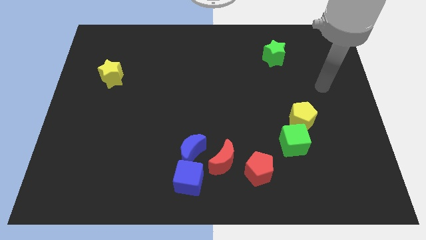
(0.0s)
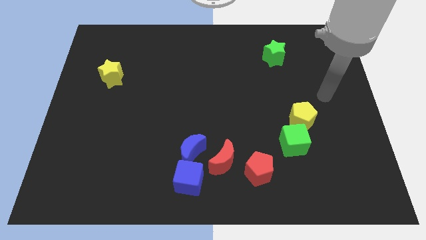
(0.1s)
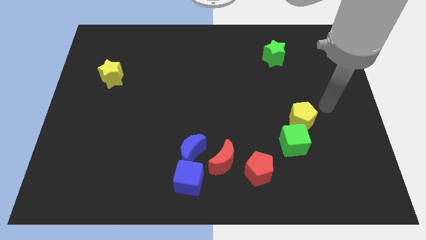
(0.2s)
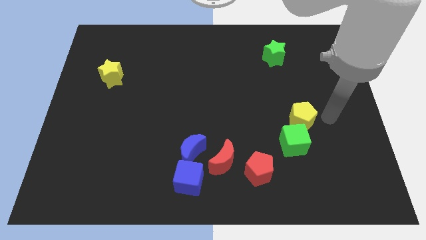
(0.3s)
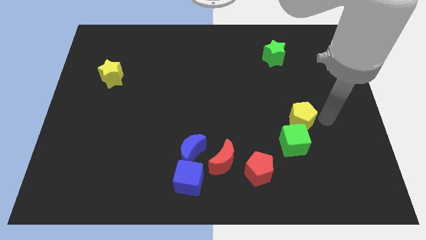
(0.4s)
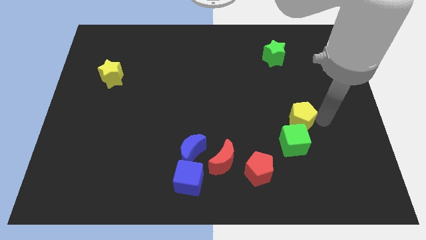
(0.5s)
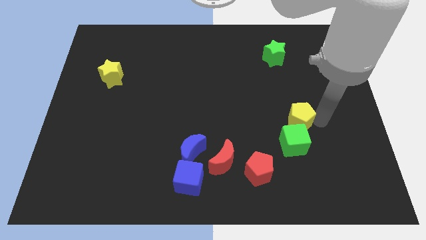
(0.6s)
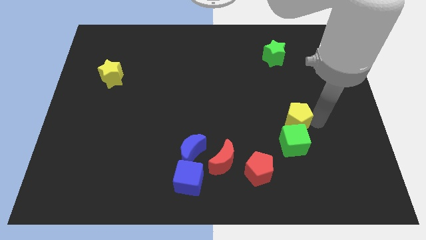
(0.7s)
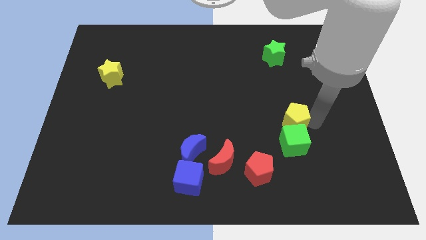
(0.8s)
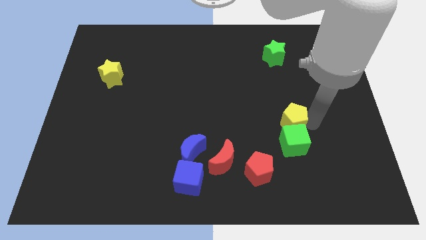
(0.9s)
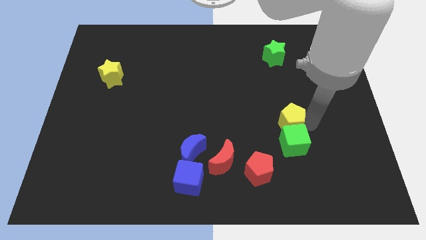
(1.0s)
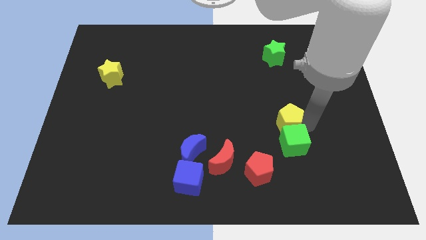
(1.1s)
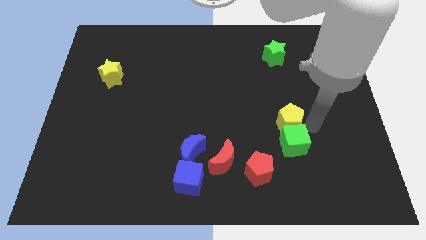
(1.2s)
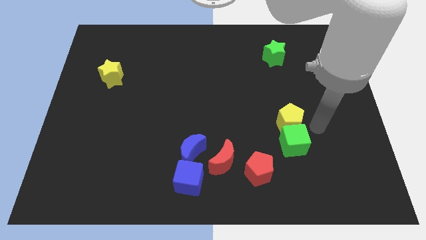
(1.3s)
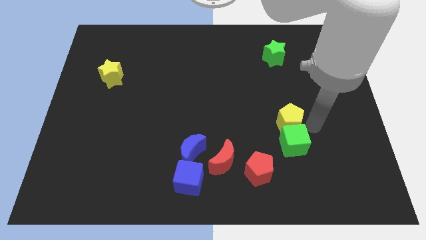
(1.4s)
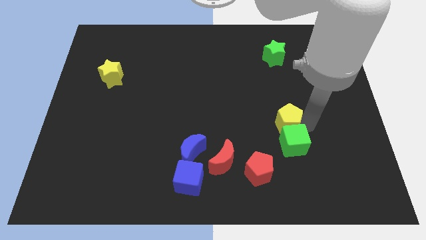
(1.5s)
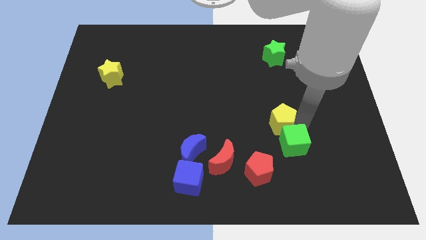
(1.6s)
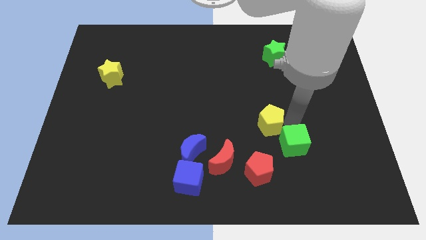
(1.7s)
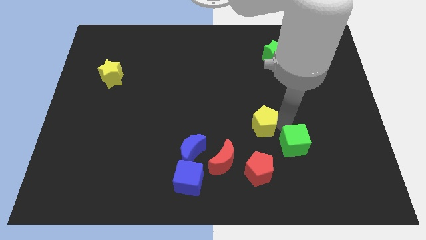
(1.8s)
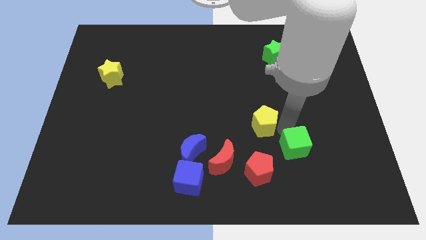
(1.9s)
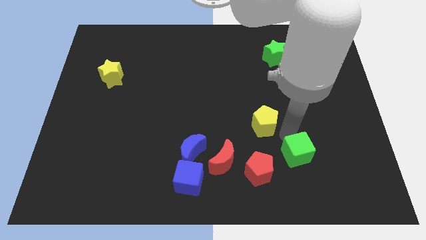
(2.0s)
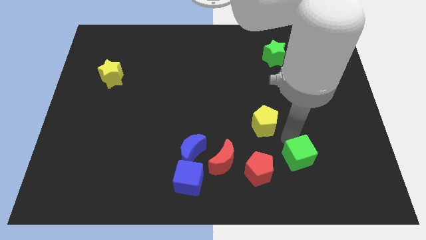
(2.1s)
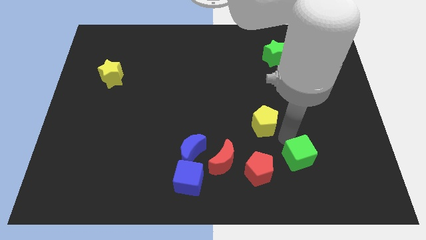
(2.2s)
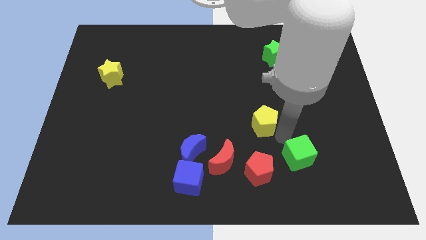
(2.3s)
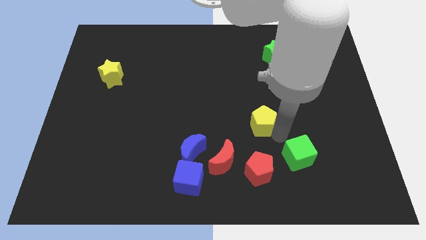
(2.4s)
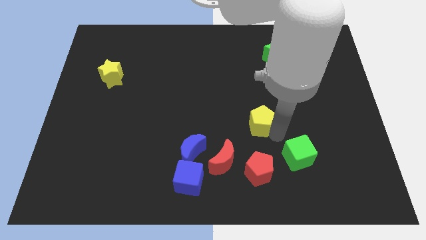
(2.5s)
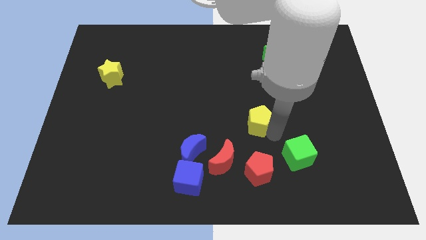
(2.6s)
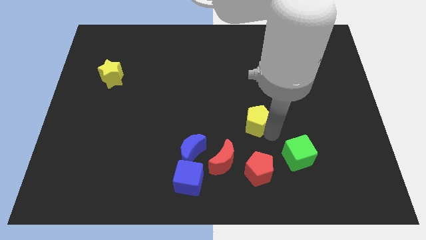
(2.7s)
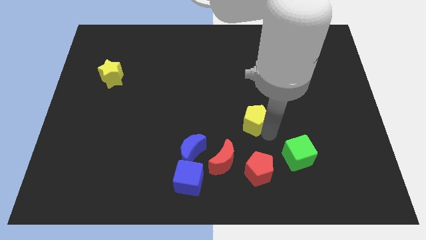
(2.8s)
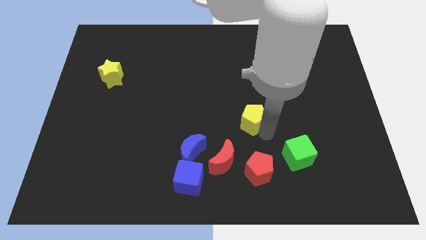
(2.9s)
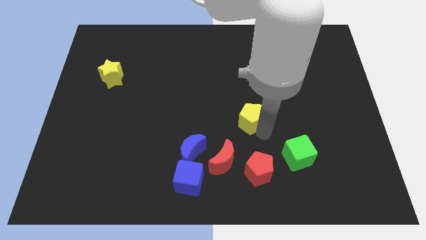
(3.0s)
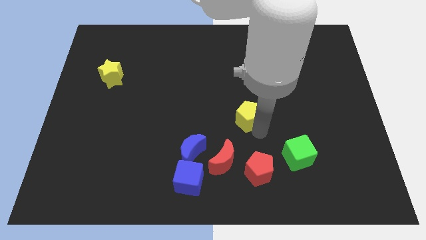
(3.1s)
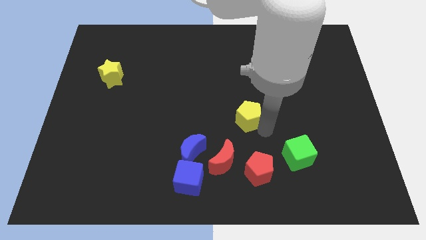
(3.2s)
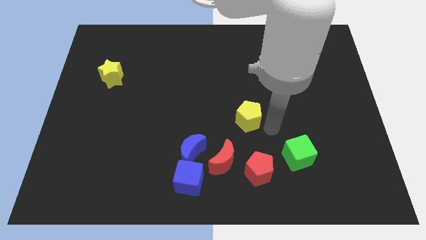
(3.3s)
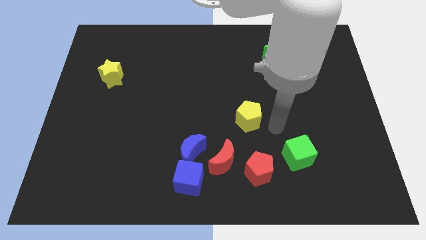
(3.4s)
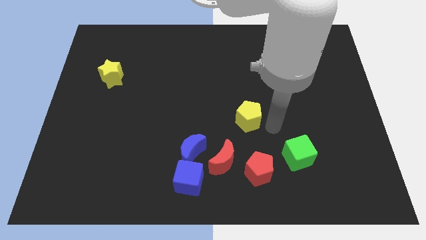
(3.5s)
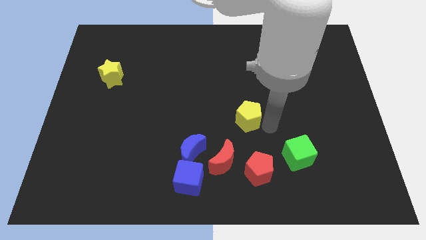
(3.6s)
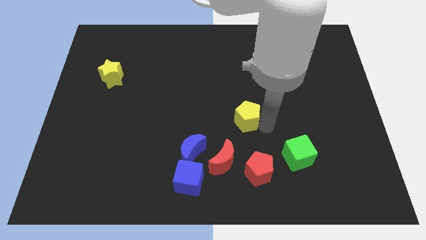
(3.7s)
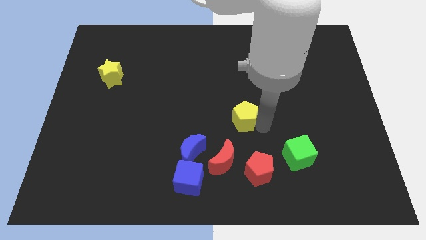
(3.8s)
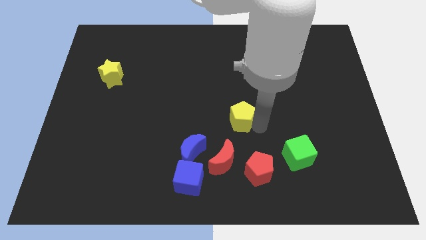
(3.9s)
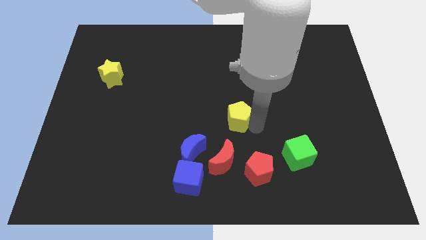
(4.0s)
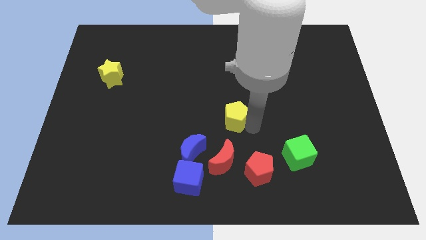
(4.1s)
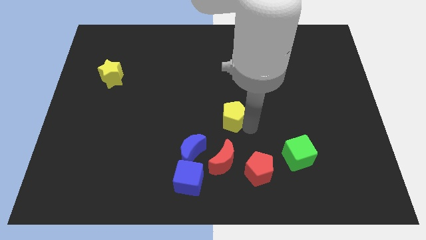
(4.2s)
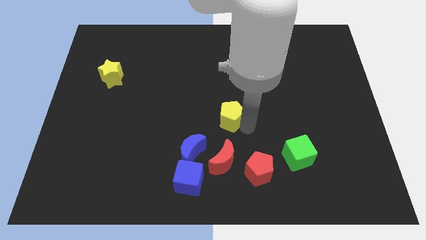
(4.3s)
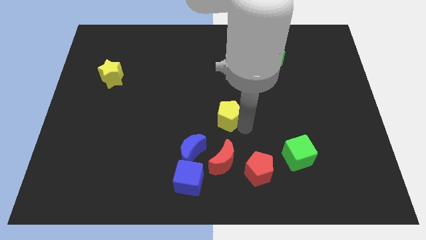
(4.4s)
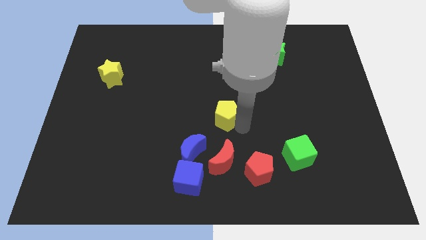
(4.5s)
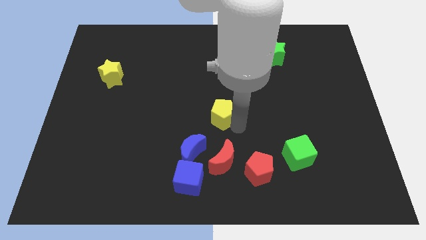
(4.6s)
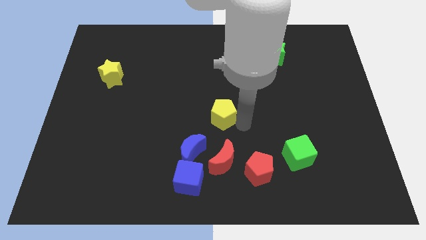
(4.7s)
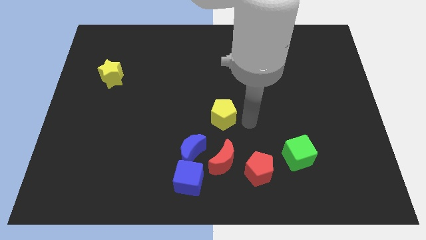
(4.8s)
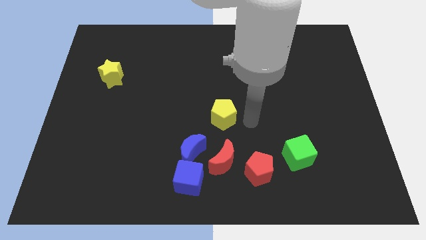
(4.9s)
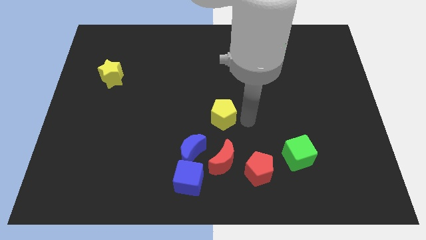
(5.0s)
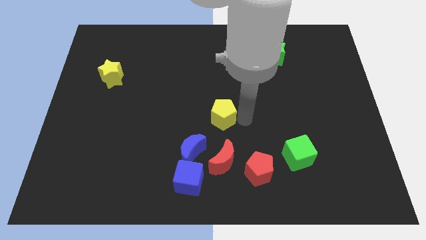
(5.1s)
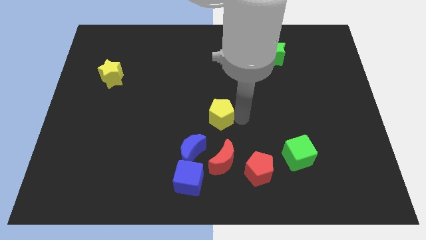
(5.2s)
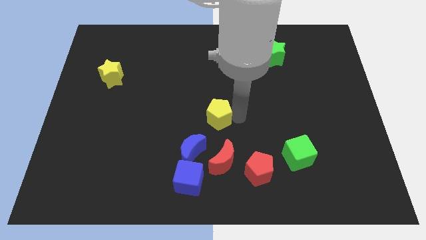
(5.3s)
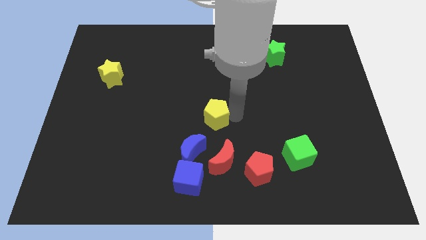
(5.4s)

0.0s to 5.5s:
push the yellow pentagon left

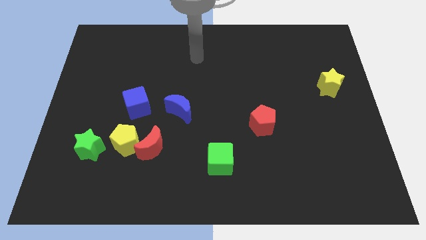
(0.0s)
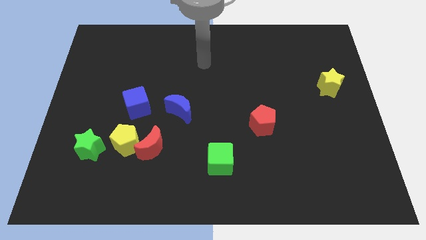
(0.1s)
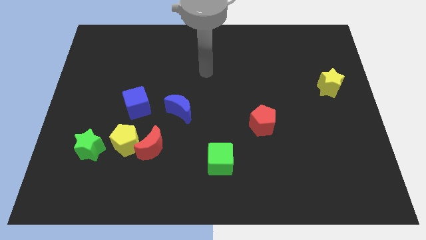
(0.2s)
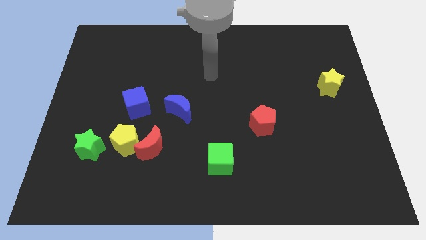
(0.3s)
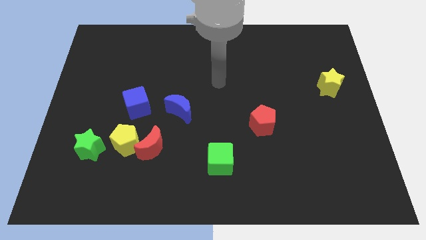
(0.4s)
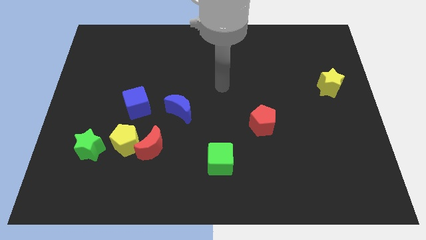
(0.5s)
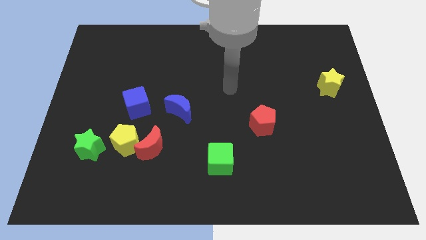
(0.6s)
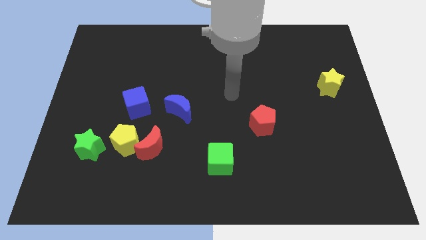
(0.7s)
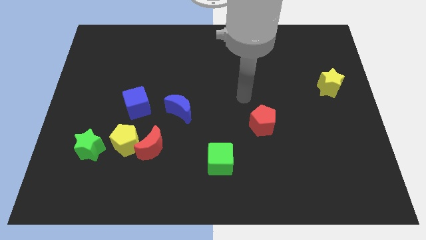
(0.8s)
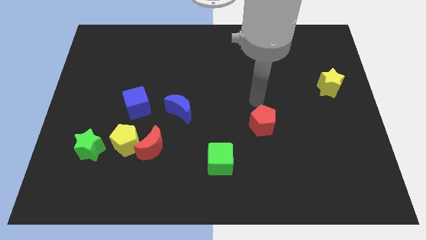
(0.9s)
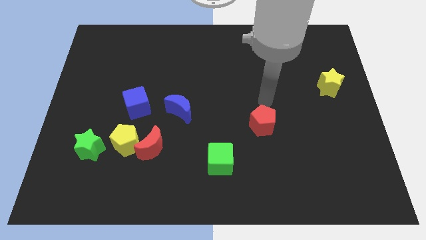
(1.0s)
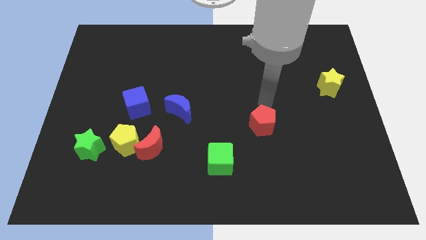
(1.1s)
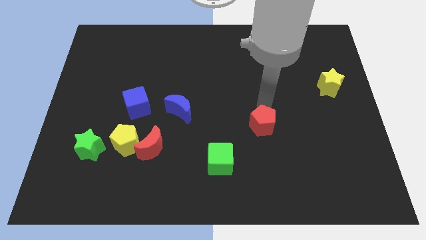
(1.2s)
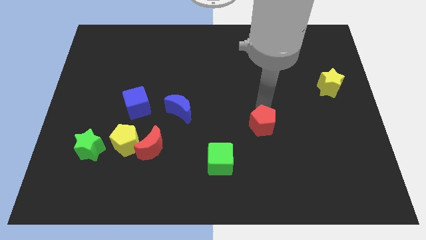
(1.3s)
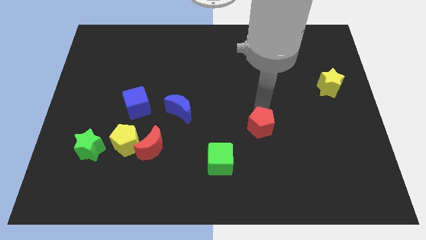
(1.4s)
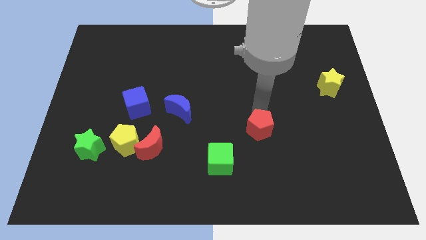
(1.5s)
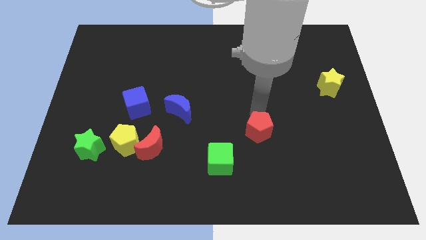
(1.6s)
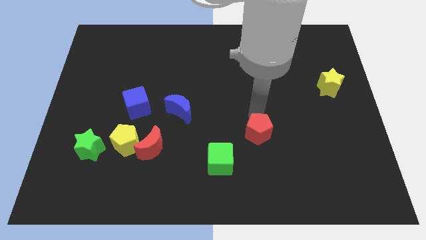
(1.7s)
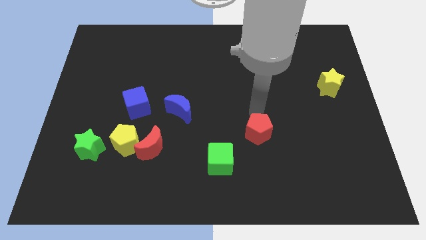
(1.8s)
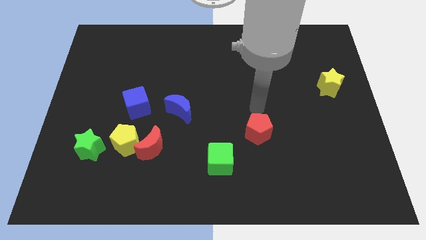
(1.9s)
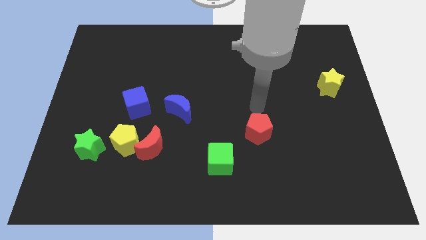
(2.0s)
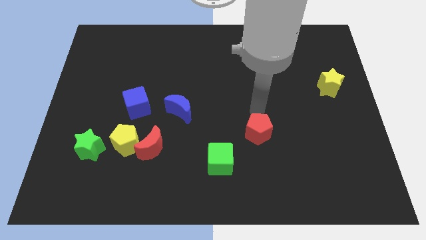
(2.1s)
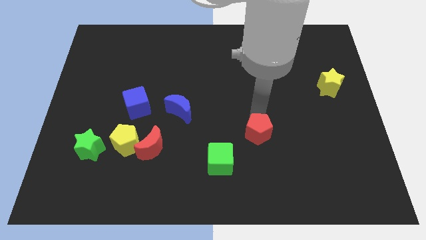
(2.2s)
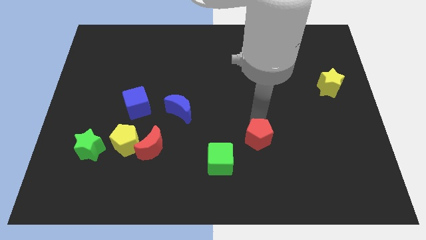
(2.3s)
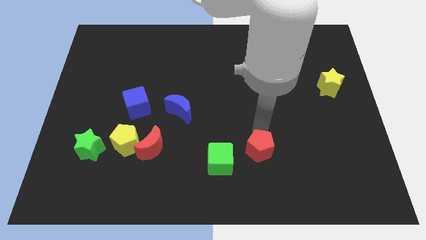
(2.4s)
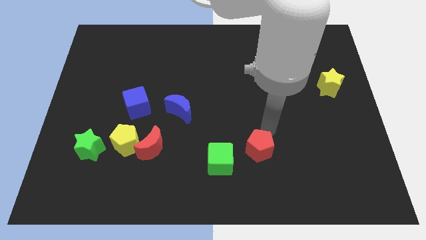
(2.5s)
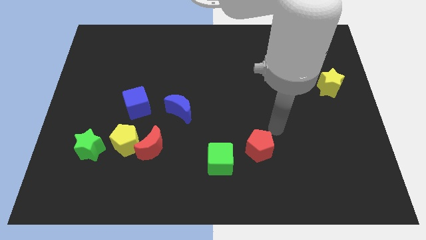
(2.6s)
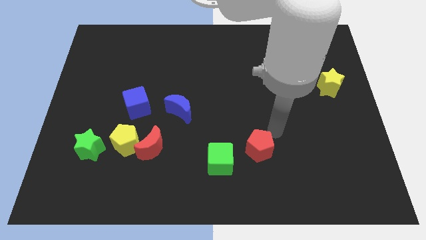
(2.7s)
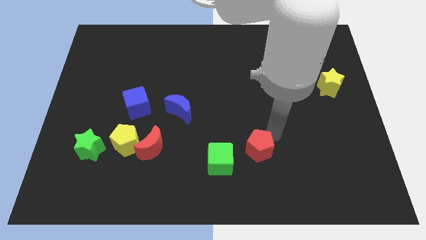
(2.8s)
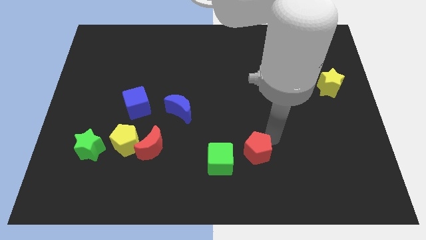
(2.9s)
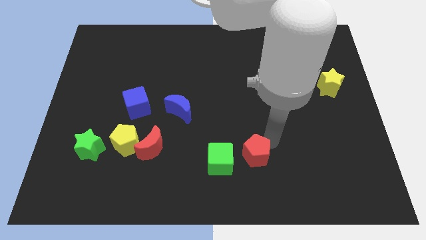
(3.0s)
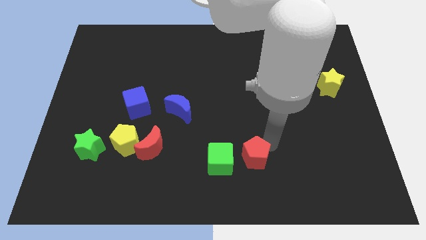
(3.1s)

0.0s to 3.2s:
slightly slide the red pentagon diagonally down and to the left
